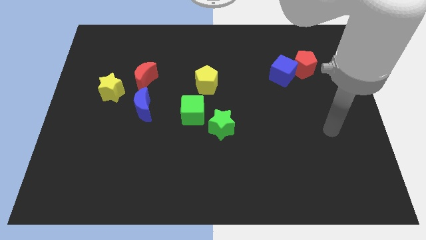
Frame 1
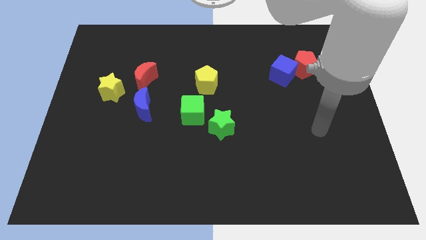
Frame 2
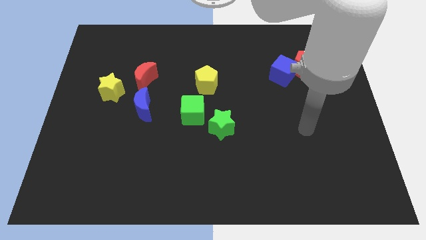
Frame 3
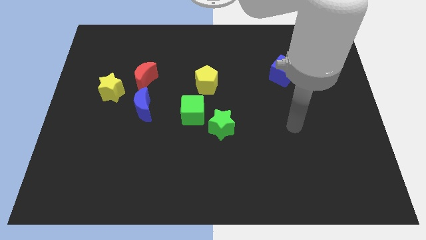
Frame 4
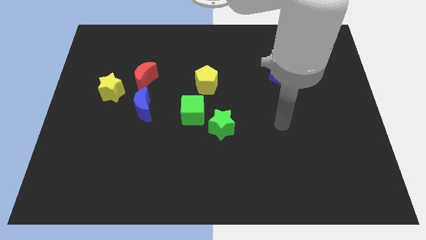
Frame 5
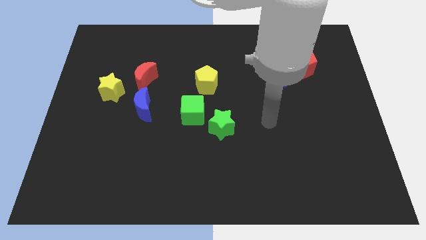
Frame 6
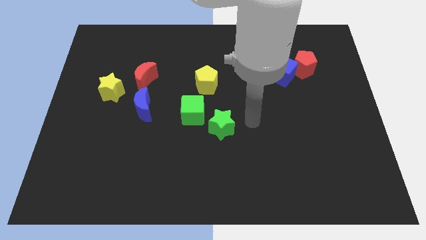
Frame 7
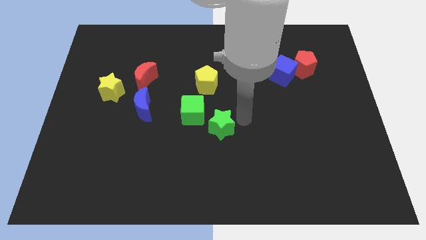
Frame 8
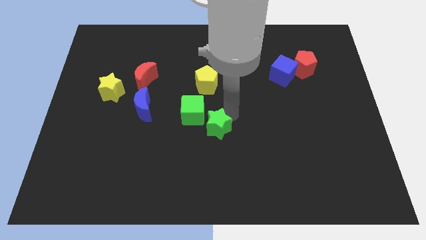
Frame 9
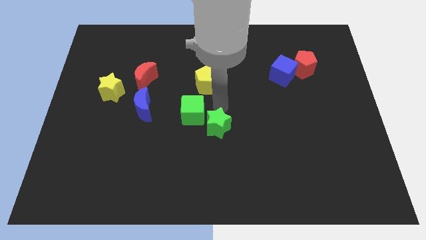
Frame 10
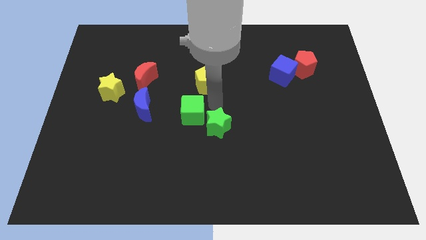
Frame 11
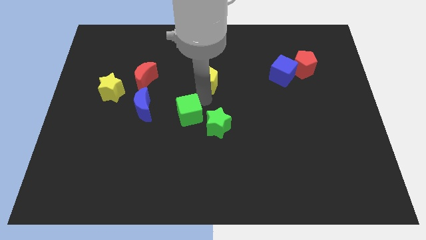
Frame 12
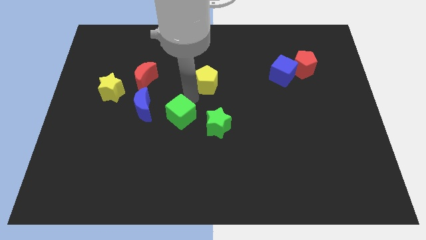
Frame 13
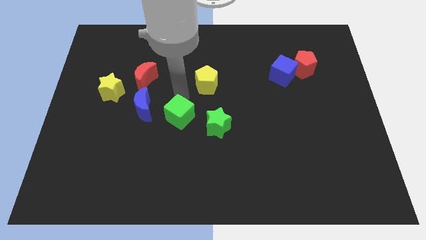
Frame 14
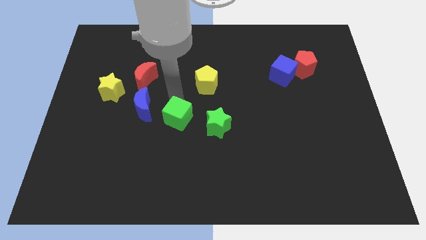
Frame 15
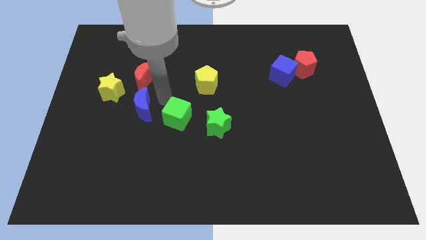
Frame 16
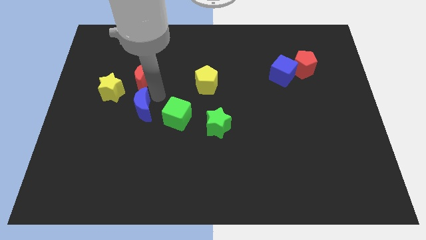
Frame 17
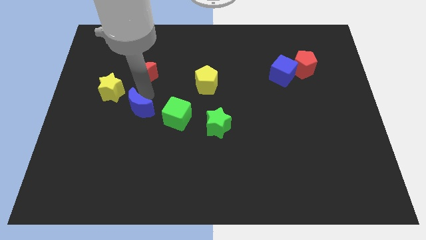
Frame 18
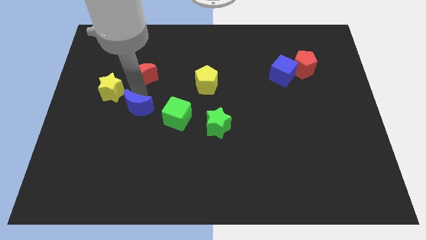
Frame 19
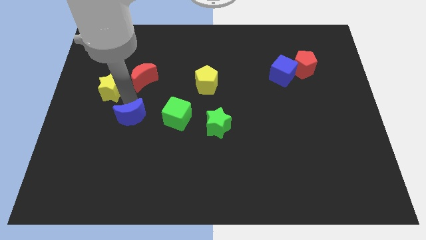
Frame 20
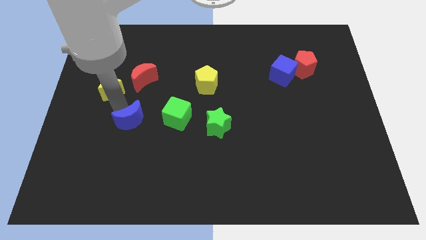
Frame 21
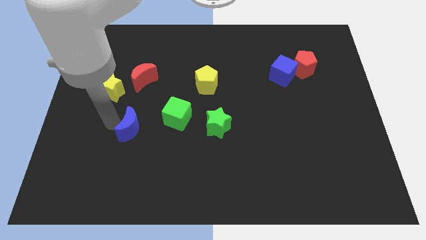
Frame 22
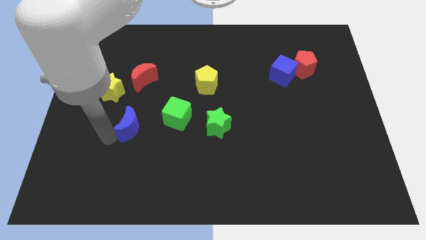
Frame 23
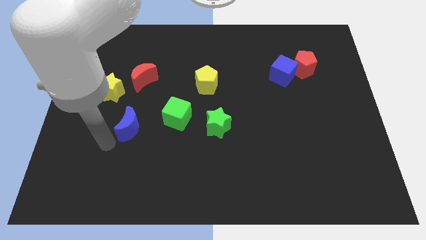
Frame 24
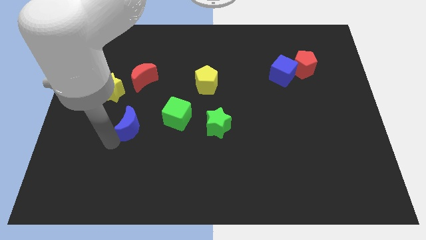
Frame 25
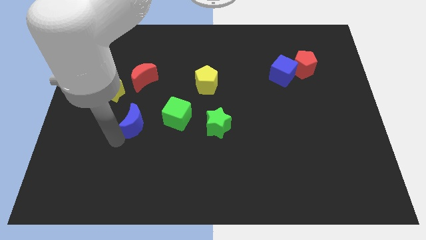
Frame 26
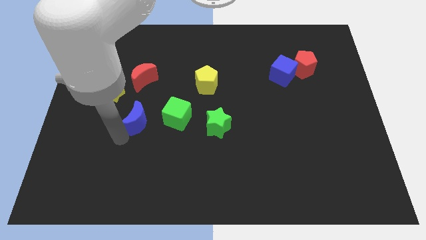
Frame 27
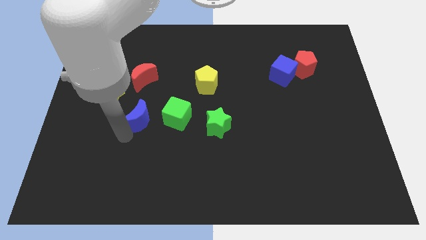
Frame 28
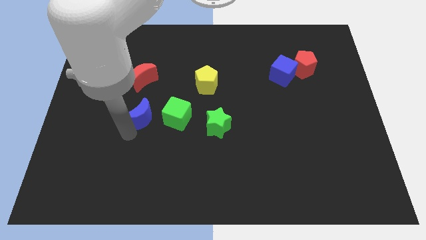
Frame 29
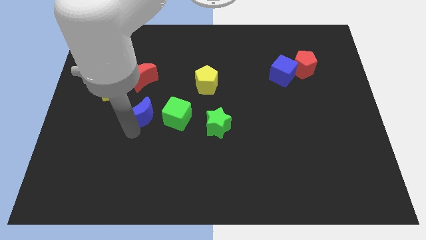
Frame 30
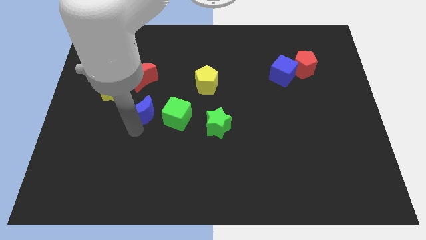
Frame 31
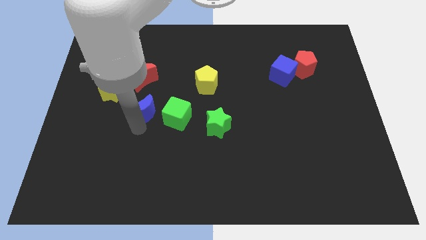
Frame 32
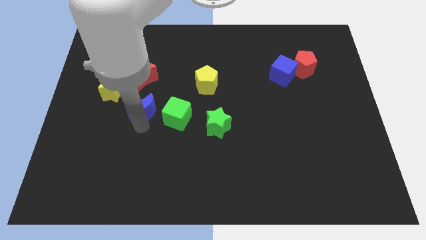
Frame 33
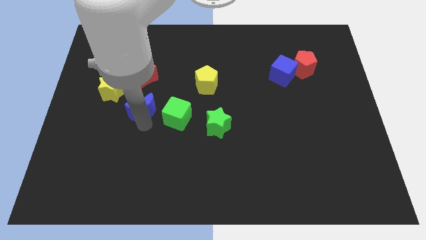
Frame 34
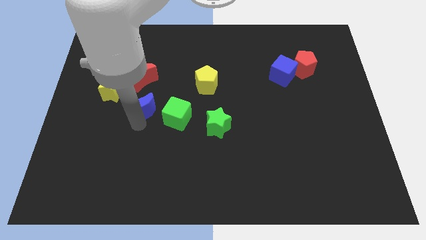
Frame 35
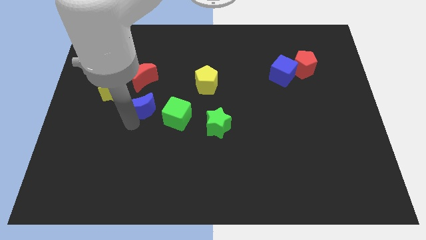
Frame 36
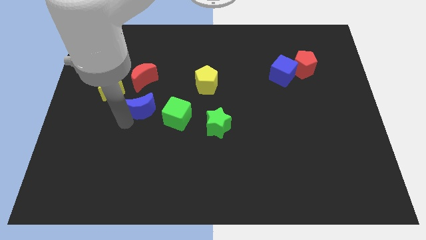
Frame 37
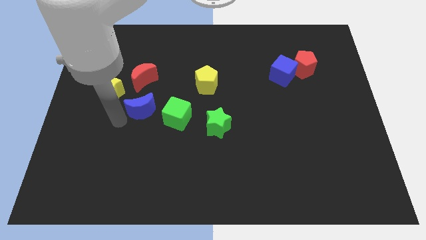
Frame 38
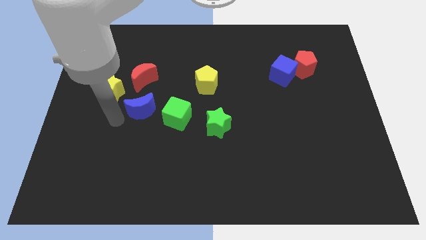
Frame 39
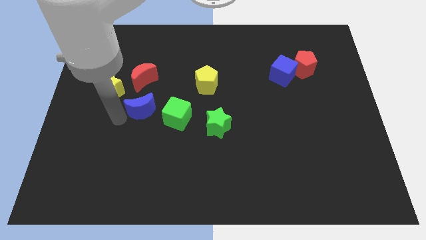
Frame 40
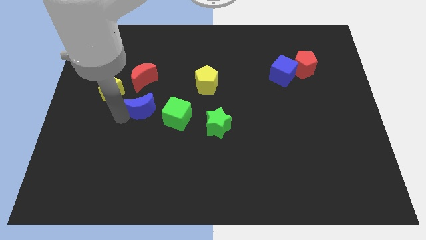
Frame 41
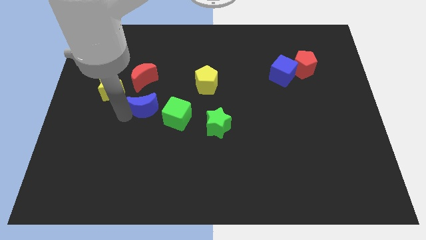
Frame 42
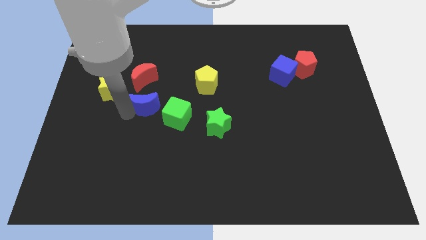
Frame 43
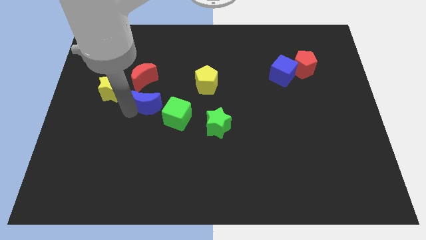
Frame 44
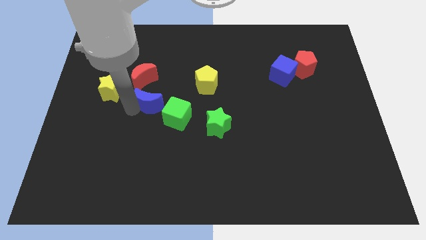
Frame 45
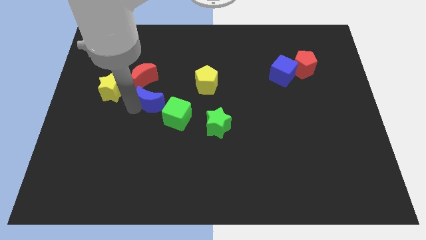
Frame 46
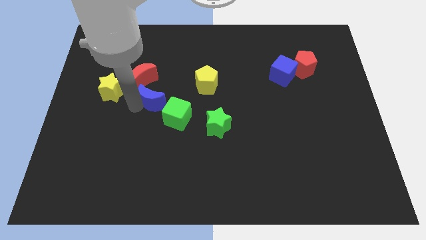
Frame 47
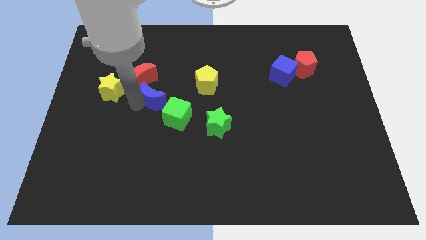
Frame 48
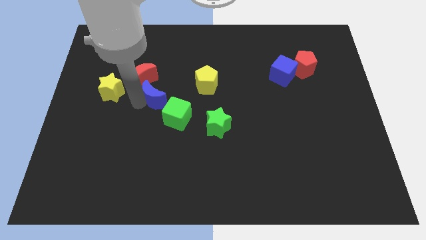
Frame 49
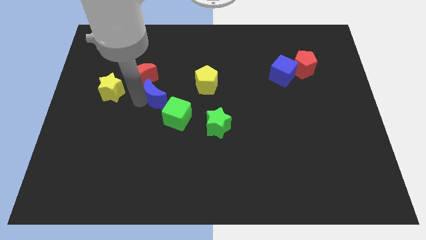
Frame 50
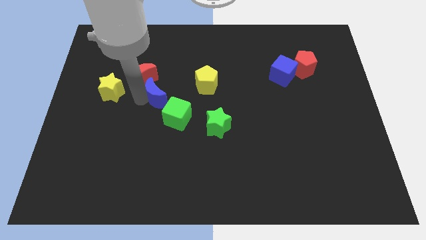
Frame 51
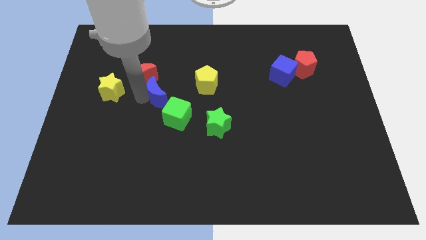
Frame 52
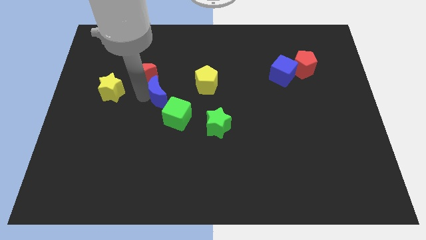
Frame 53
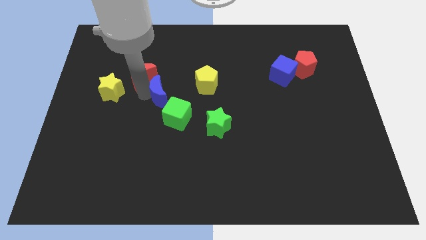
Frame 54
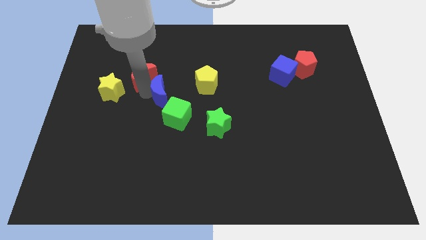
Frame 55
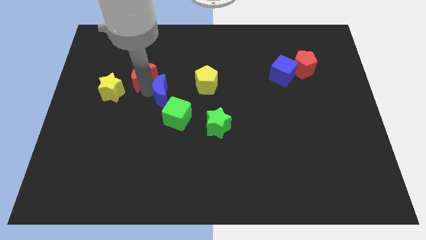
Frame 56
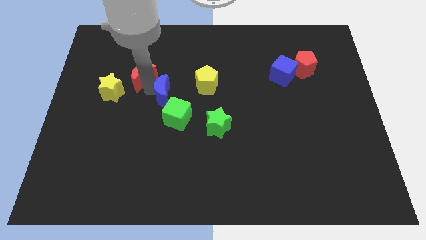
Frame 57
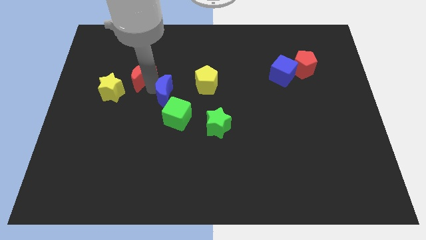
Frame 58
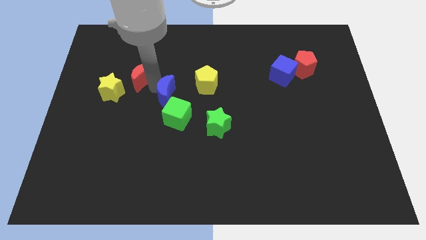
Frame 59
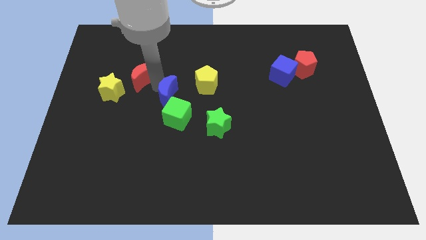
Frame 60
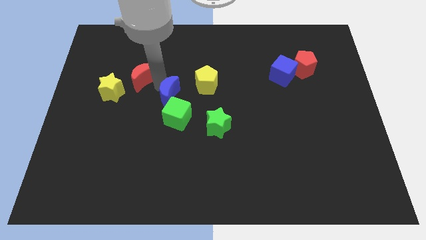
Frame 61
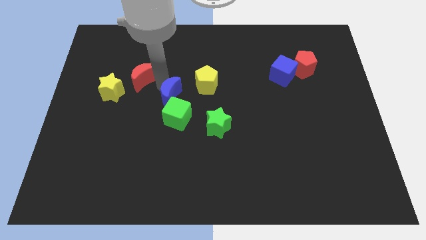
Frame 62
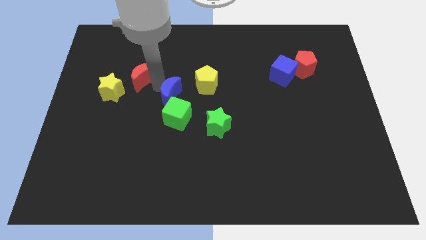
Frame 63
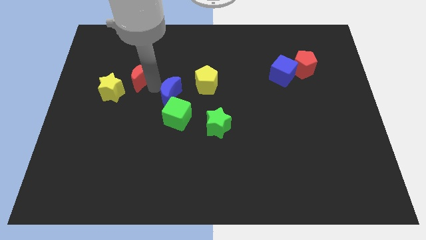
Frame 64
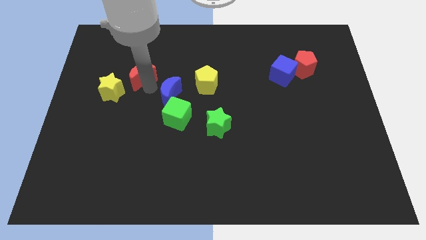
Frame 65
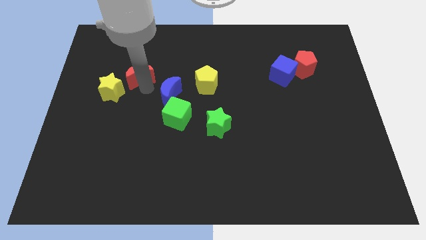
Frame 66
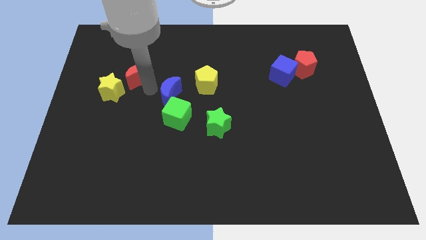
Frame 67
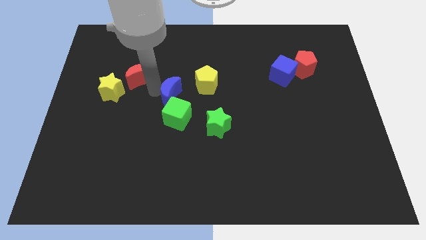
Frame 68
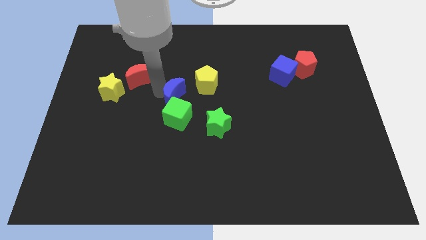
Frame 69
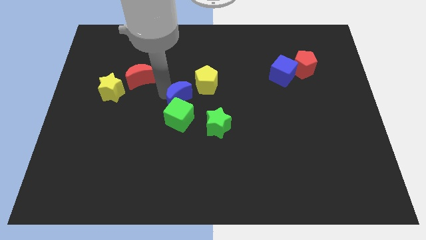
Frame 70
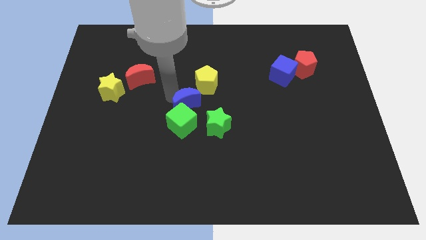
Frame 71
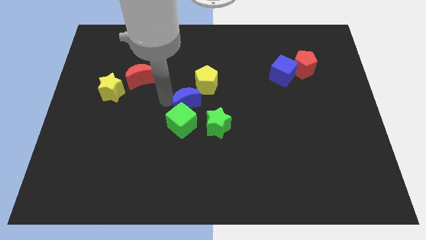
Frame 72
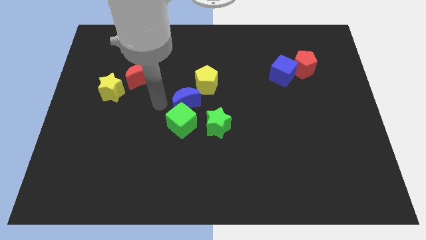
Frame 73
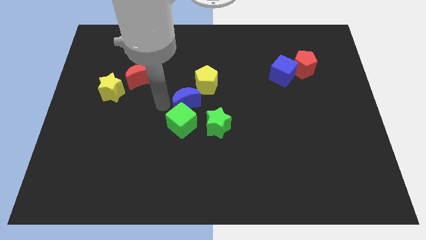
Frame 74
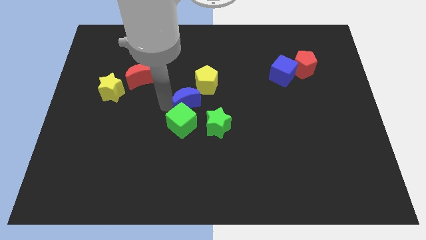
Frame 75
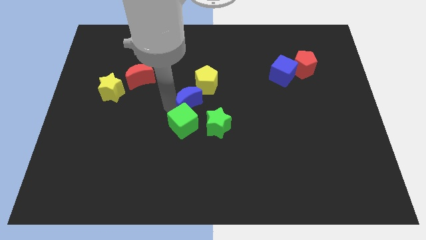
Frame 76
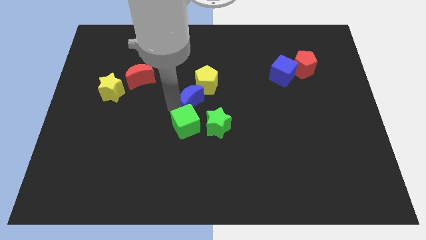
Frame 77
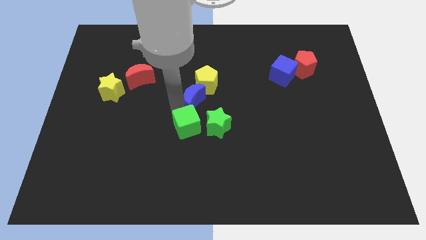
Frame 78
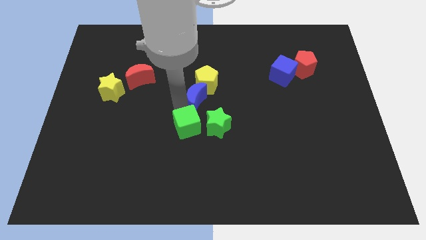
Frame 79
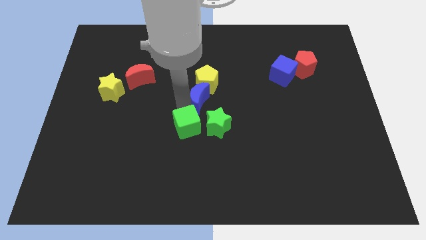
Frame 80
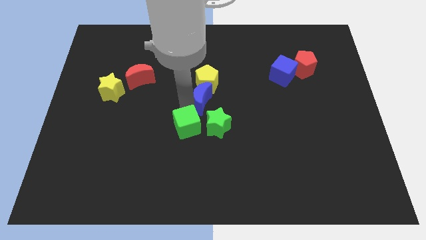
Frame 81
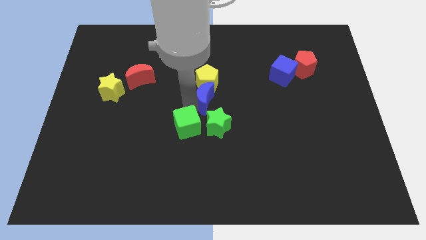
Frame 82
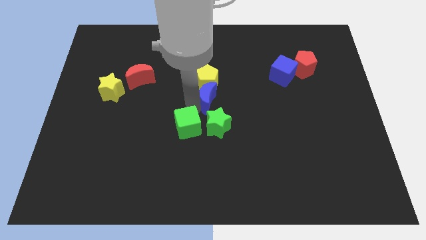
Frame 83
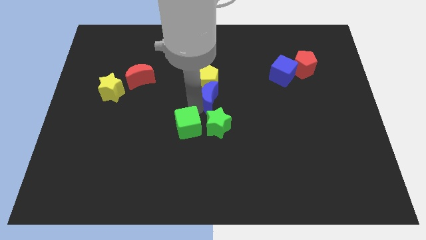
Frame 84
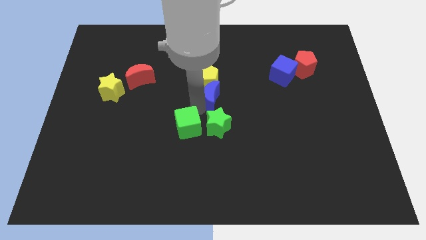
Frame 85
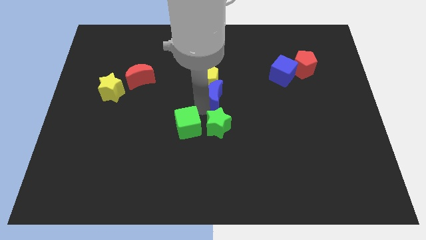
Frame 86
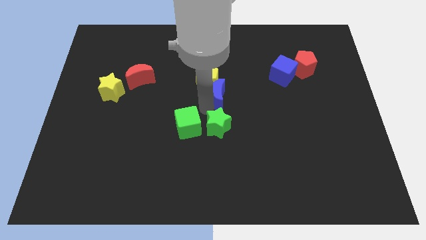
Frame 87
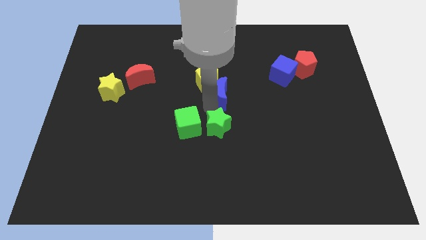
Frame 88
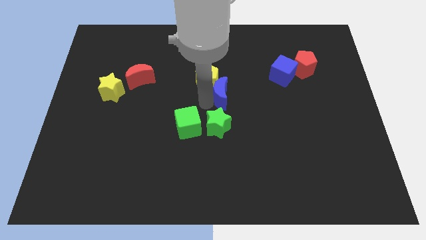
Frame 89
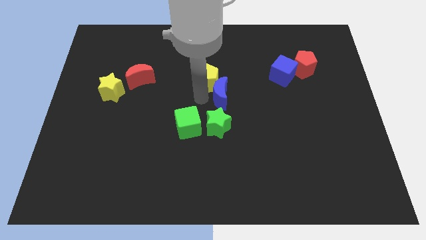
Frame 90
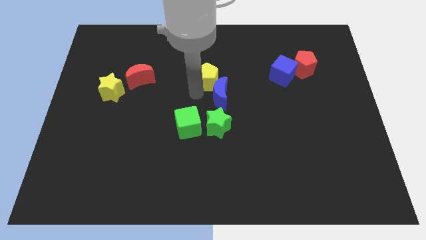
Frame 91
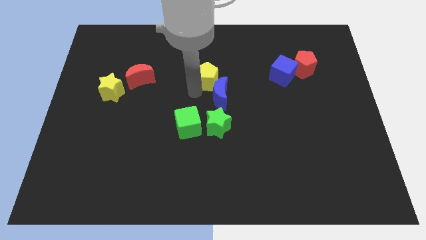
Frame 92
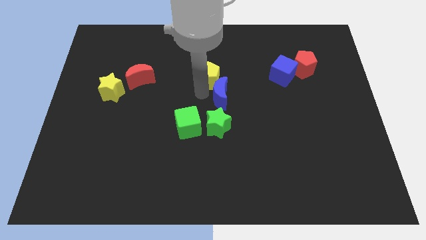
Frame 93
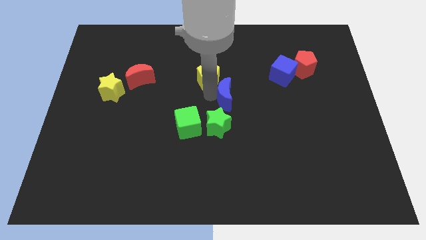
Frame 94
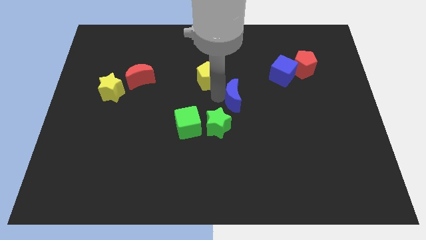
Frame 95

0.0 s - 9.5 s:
move the blue moon to the right
